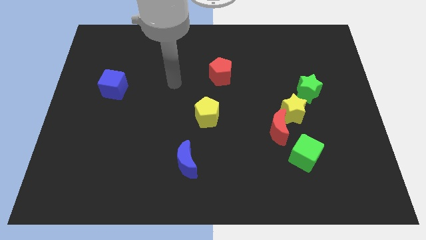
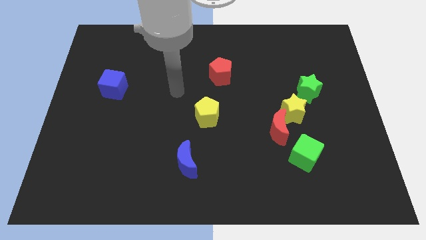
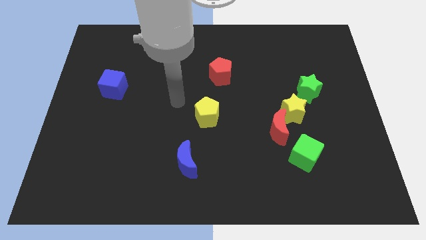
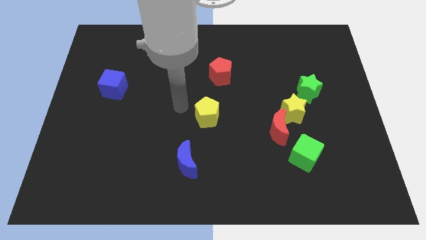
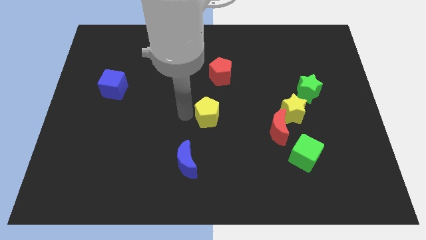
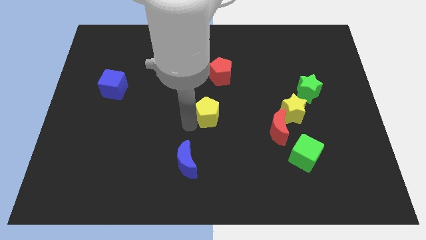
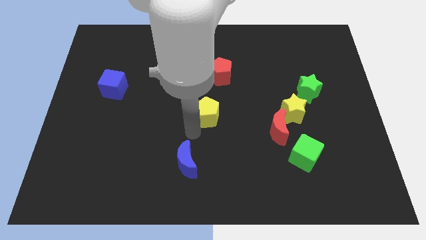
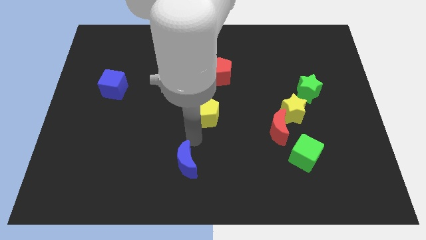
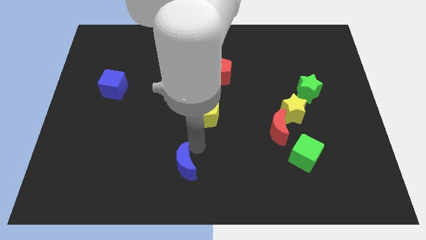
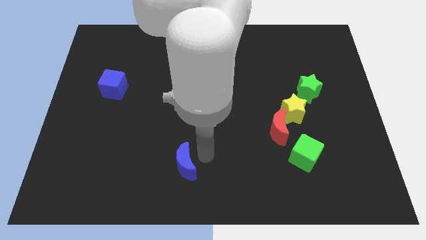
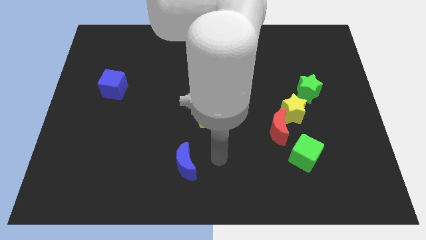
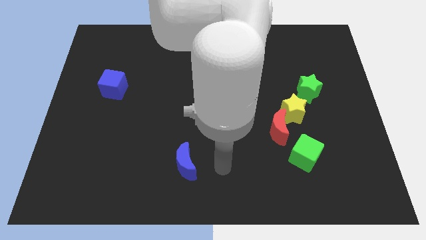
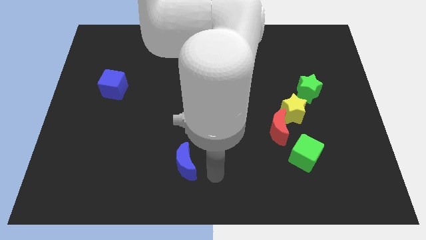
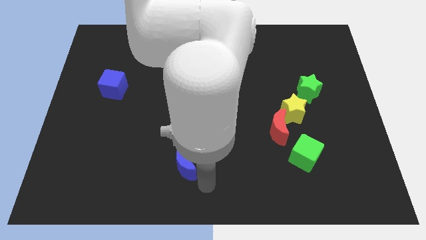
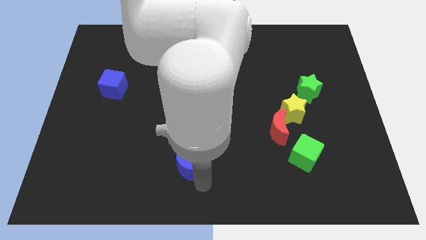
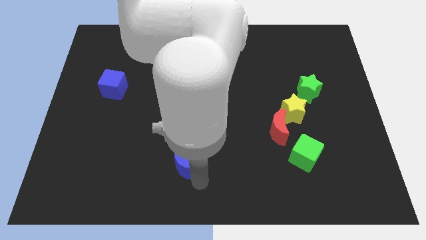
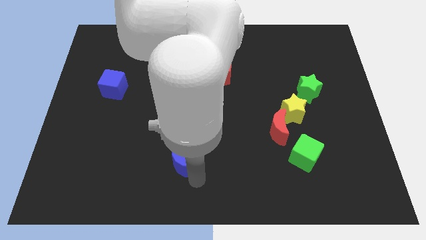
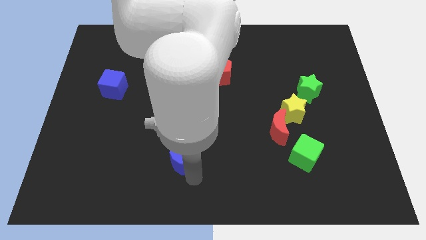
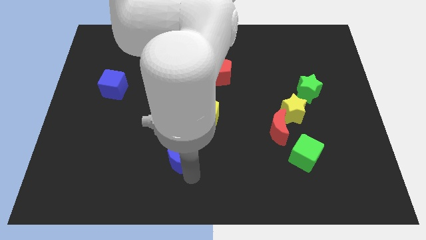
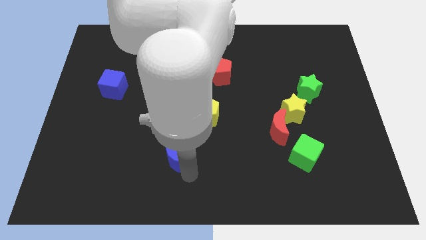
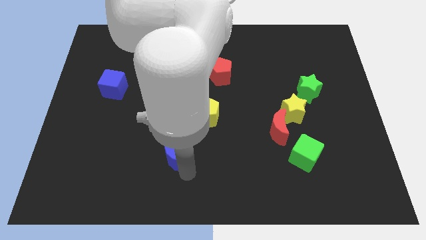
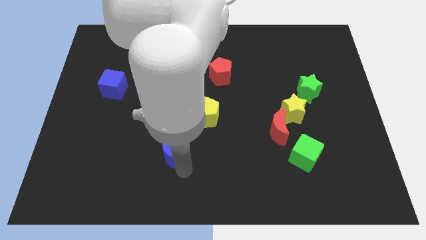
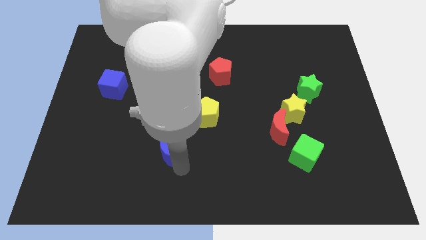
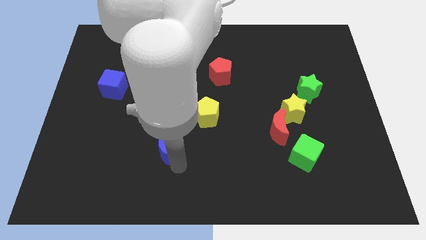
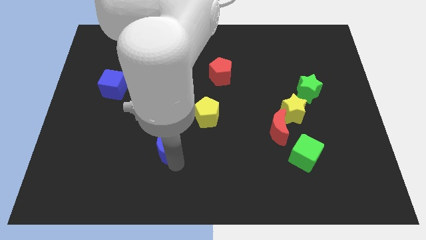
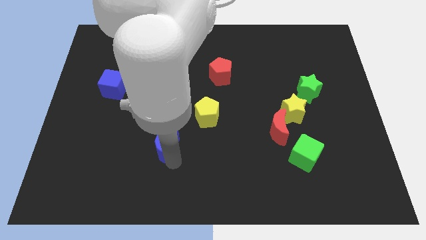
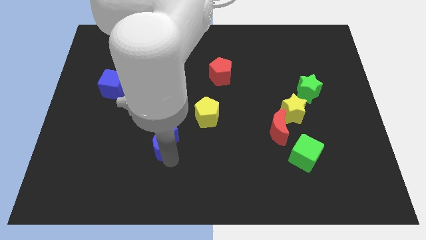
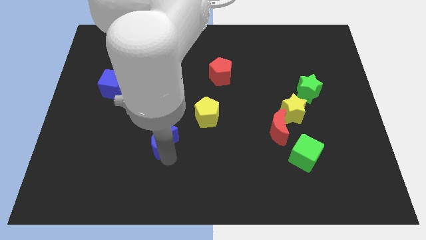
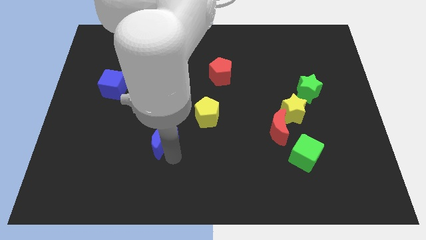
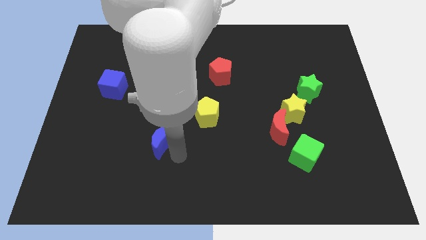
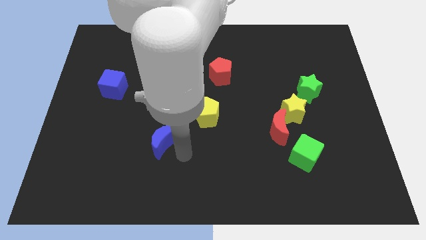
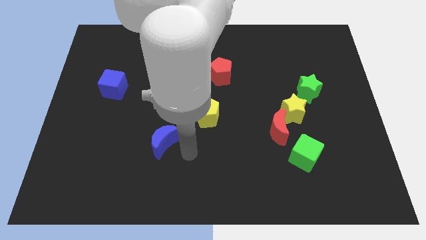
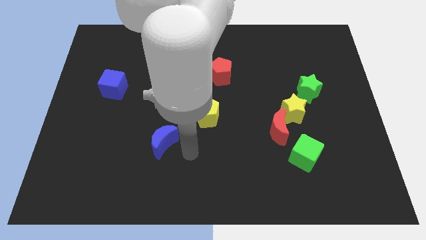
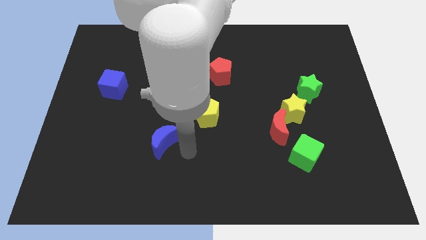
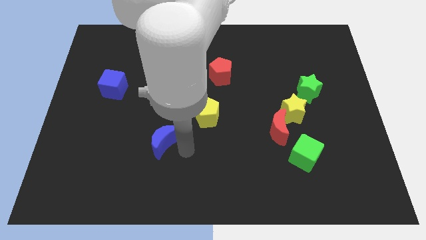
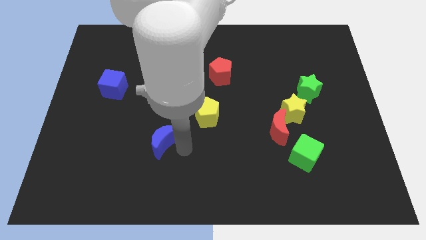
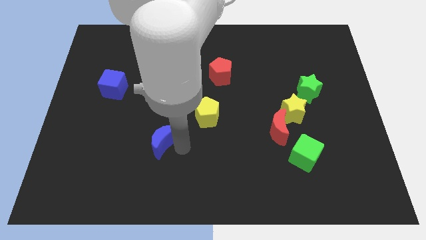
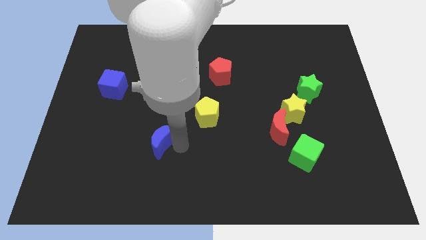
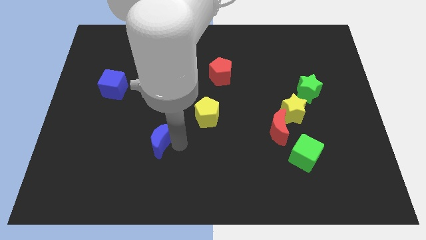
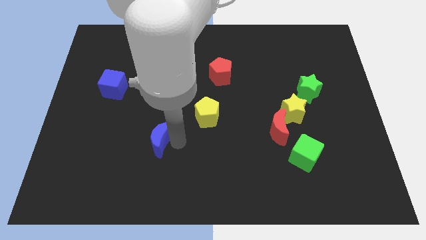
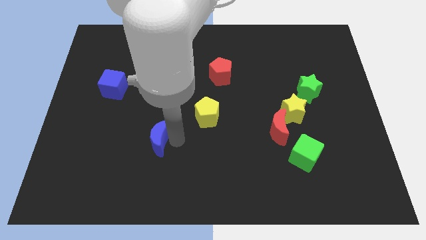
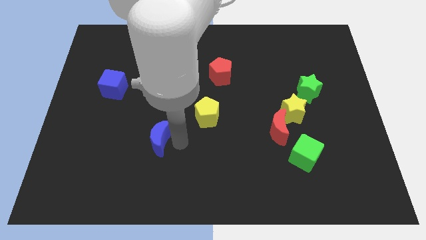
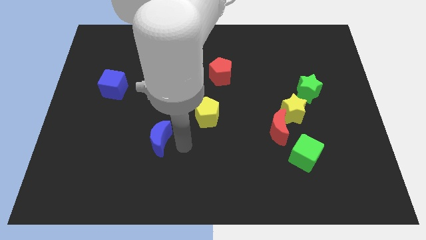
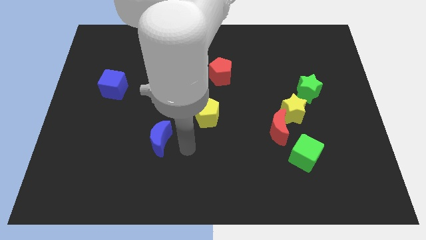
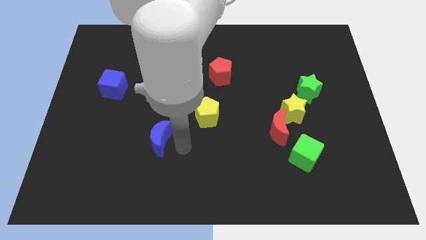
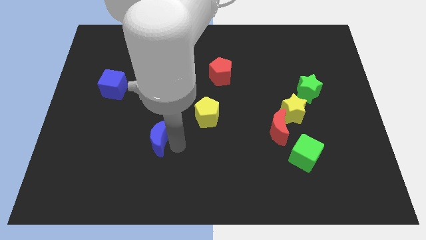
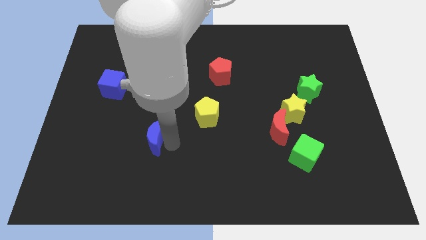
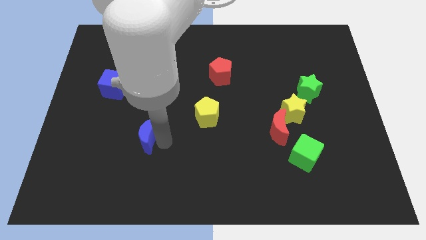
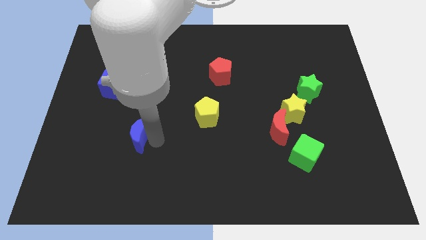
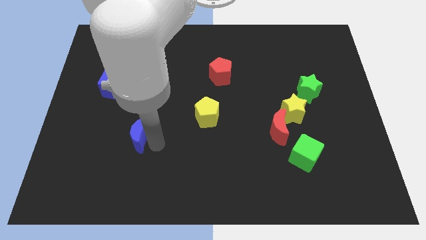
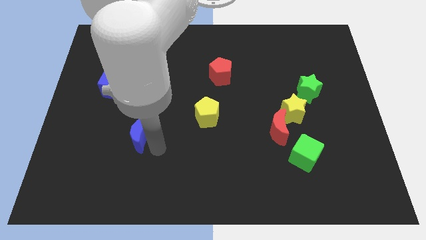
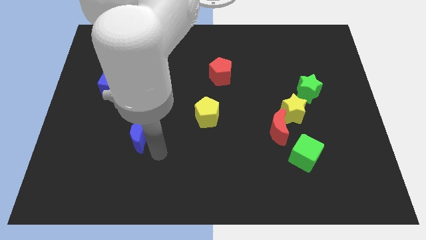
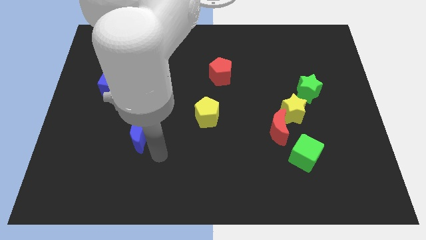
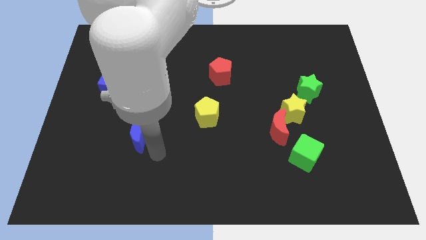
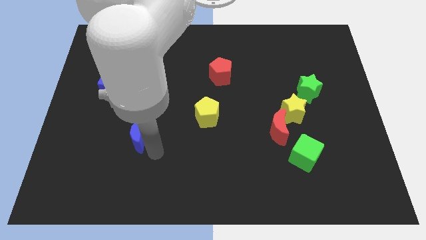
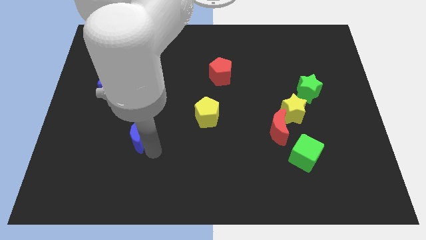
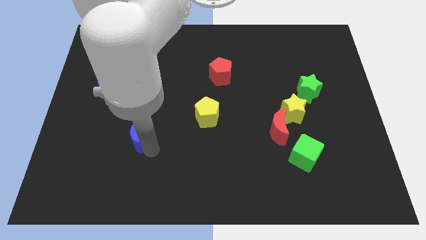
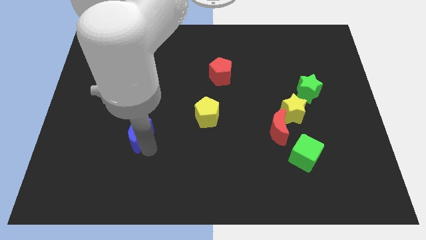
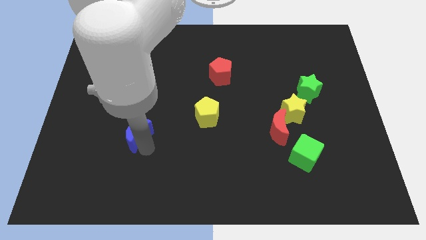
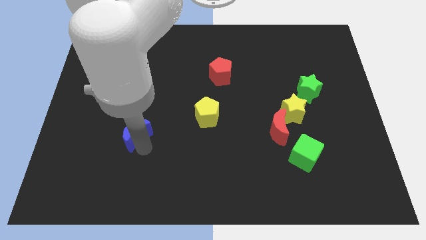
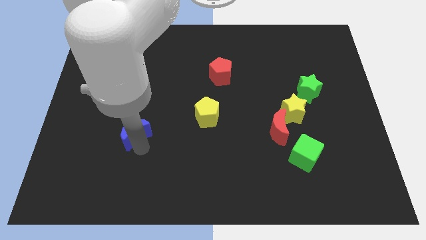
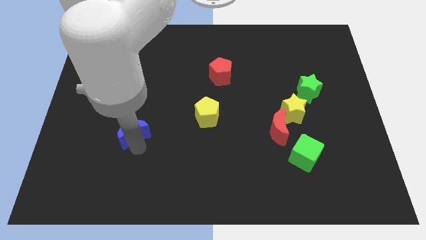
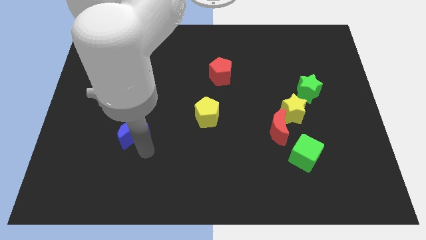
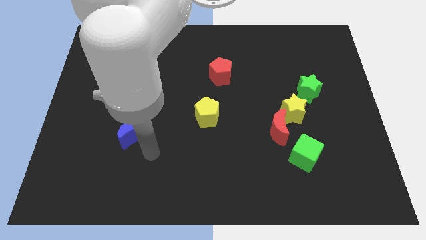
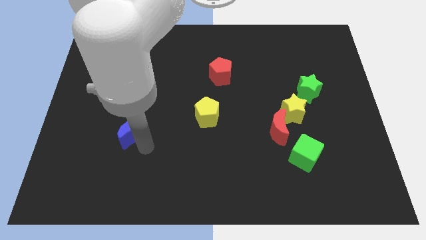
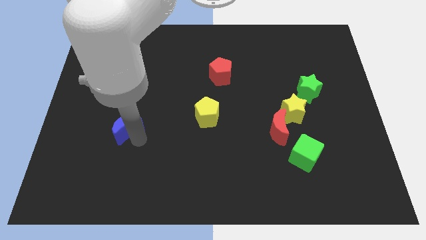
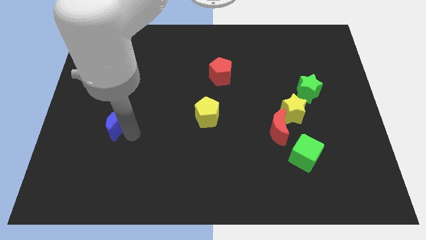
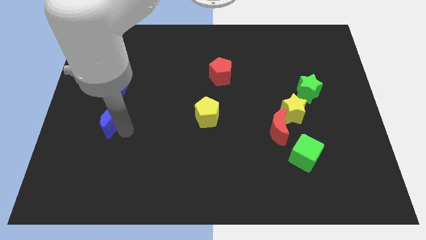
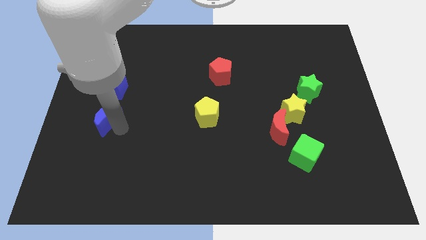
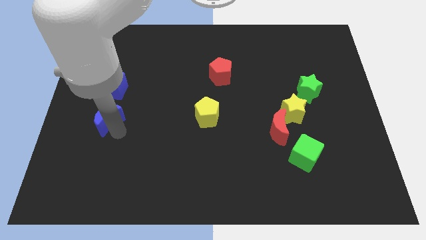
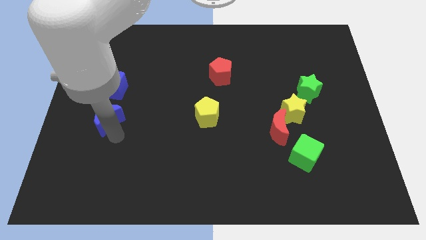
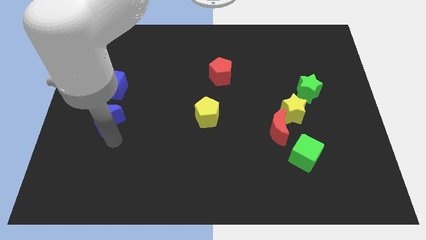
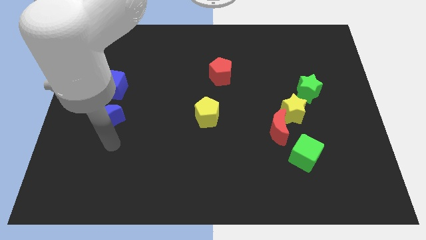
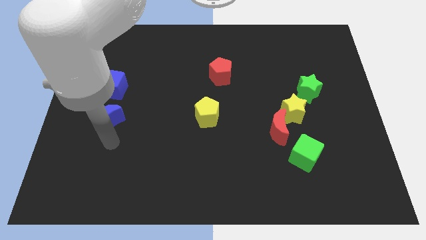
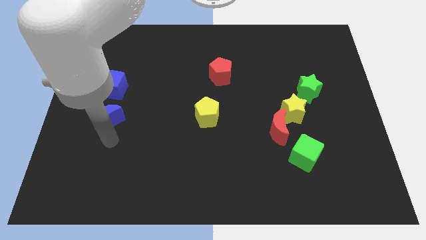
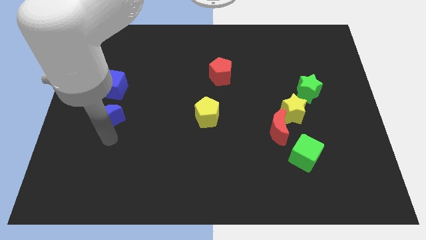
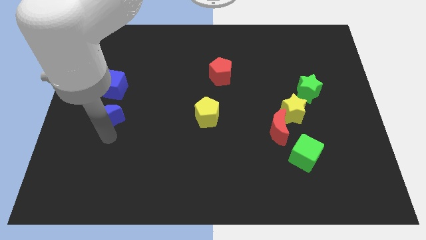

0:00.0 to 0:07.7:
push the blue moon upwards and to the left
